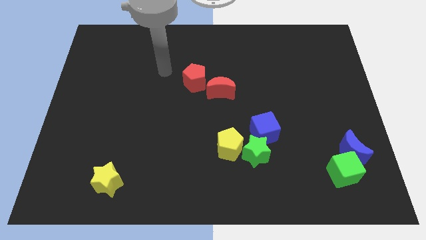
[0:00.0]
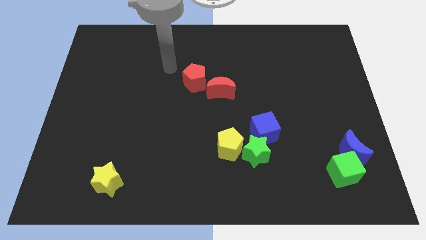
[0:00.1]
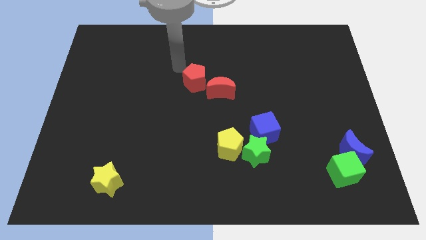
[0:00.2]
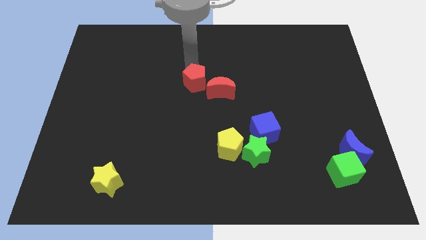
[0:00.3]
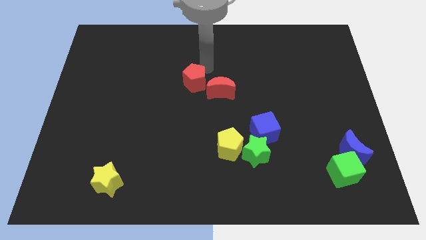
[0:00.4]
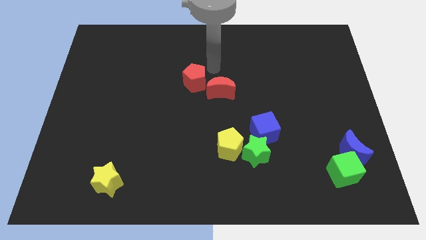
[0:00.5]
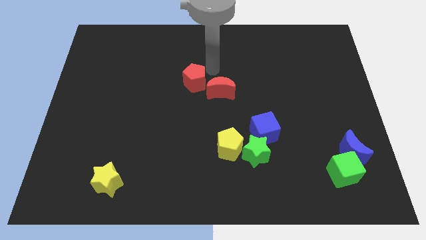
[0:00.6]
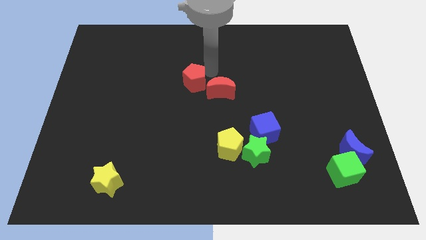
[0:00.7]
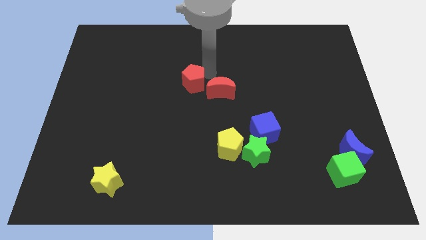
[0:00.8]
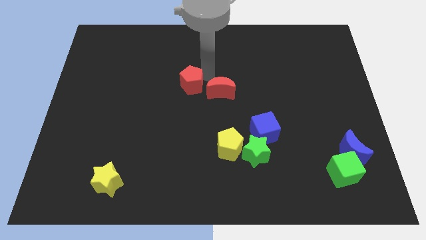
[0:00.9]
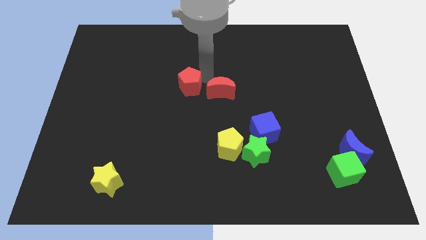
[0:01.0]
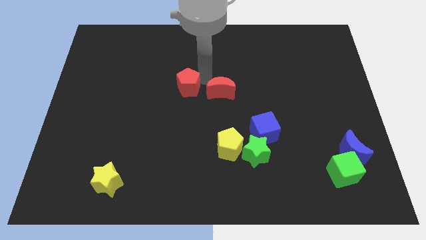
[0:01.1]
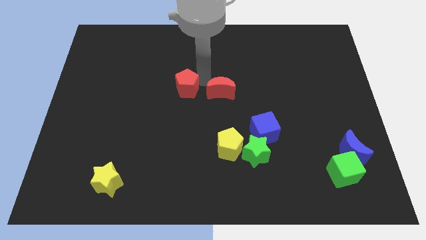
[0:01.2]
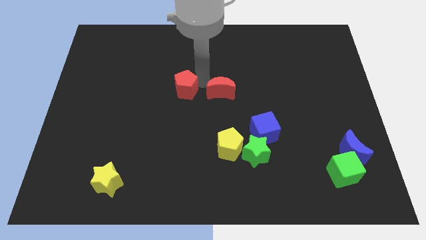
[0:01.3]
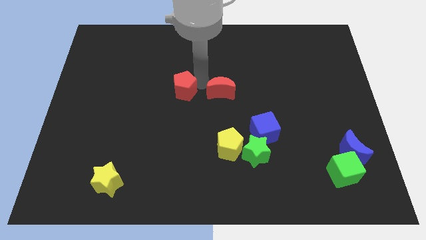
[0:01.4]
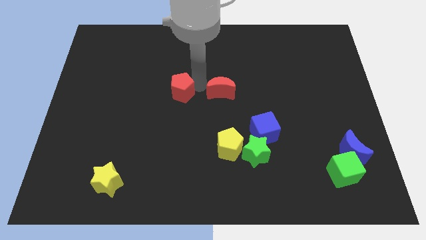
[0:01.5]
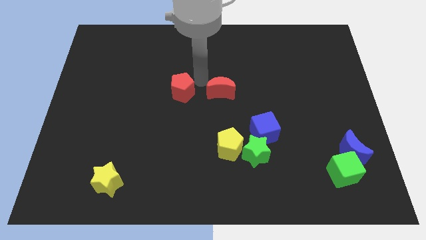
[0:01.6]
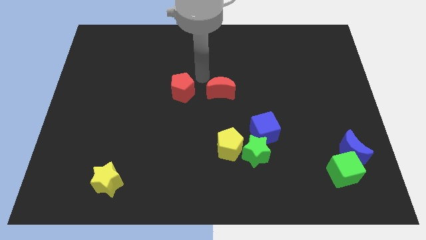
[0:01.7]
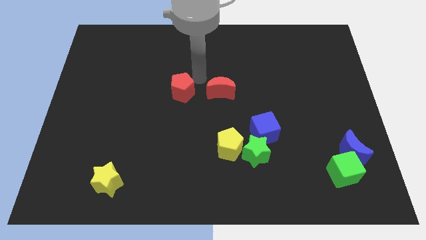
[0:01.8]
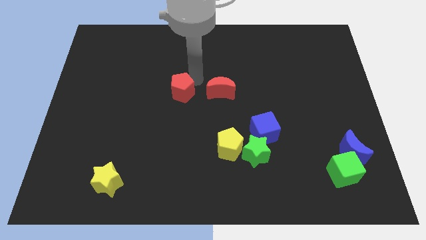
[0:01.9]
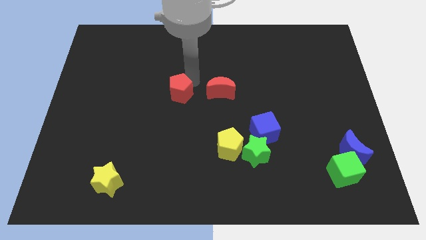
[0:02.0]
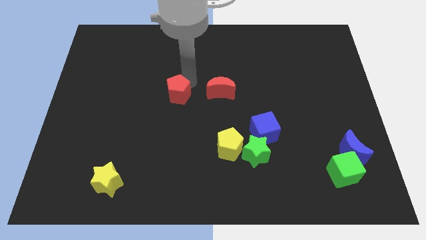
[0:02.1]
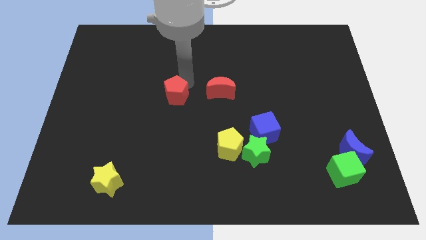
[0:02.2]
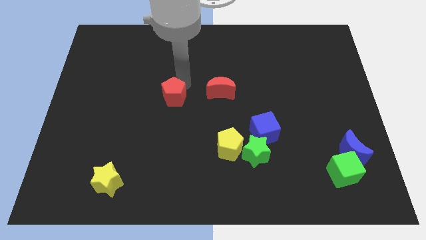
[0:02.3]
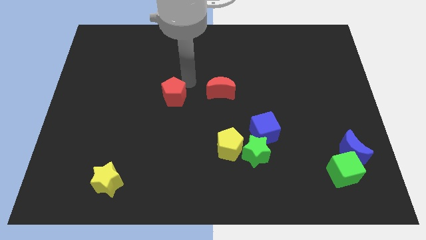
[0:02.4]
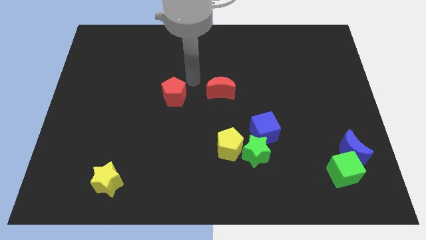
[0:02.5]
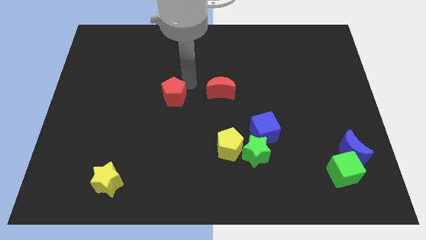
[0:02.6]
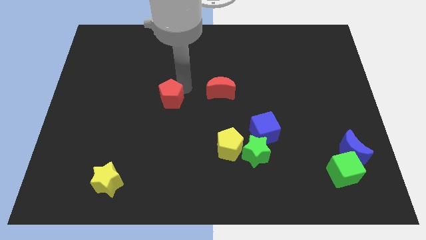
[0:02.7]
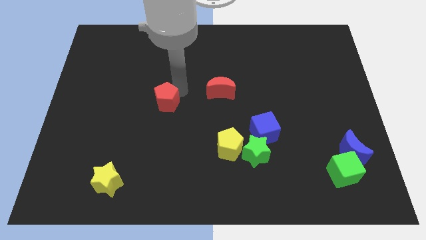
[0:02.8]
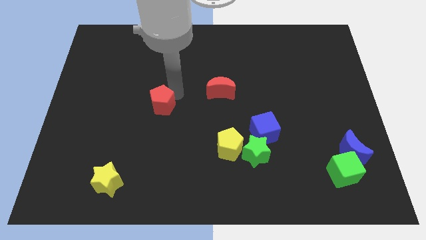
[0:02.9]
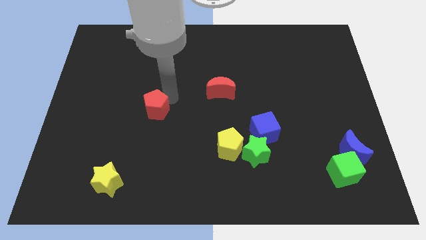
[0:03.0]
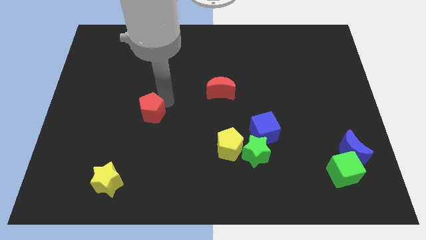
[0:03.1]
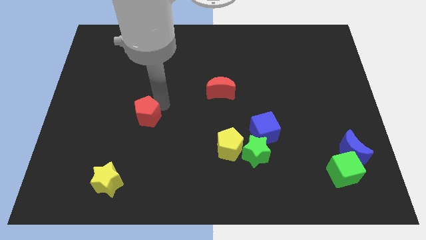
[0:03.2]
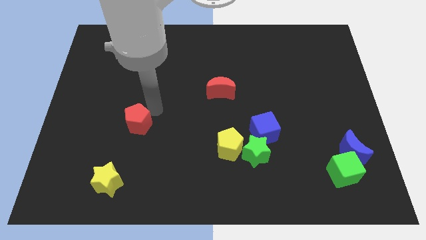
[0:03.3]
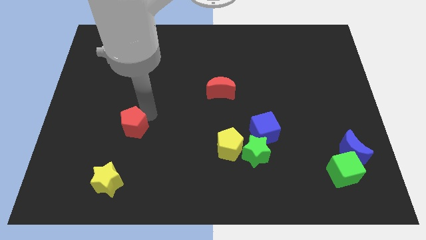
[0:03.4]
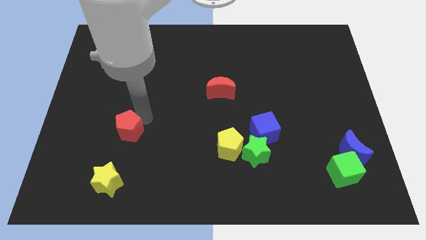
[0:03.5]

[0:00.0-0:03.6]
push the red pentagon down and then to the left

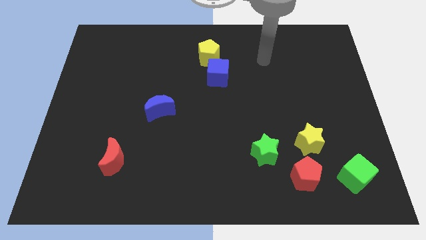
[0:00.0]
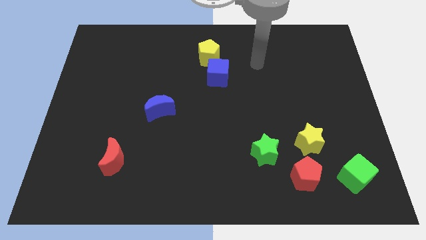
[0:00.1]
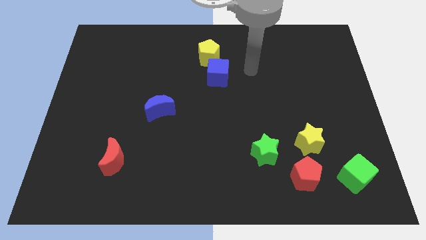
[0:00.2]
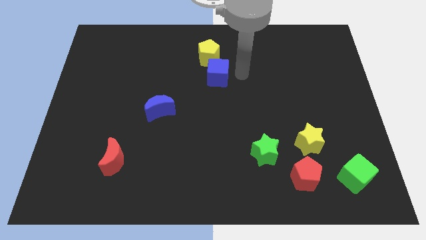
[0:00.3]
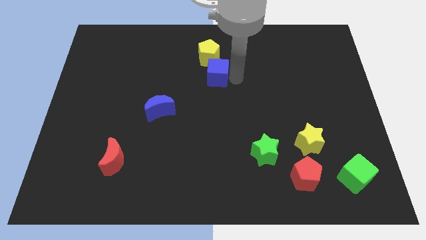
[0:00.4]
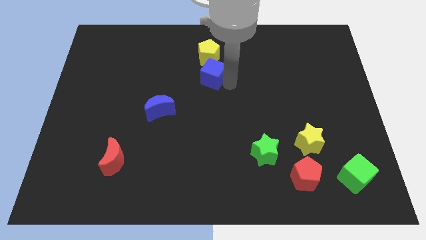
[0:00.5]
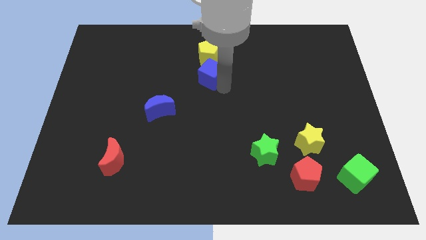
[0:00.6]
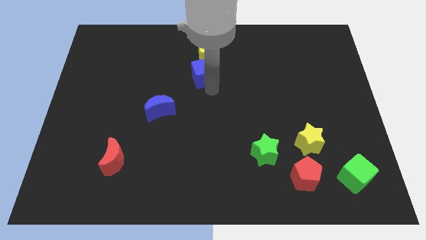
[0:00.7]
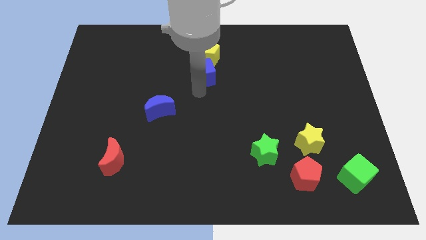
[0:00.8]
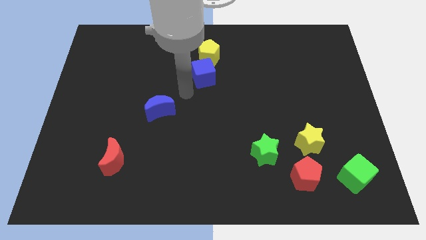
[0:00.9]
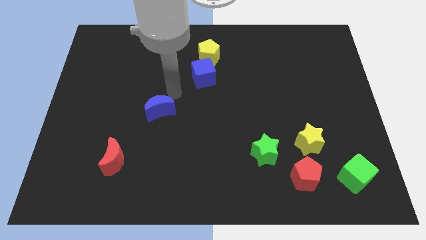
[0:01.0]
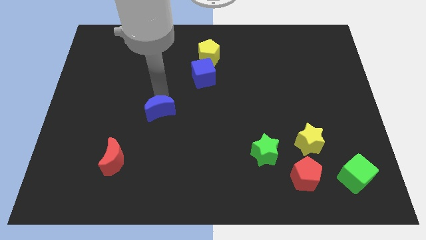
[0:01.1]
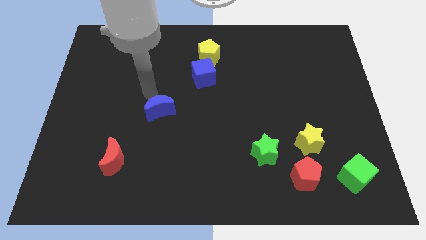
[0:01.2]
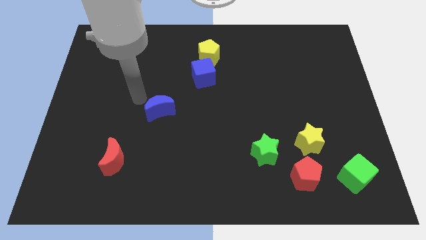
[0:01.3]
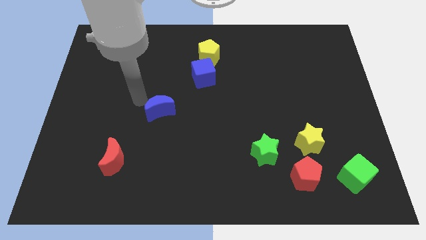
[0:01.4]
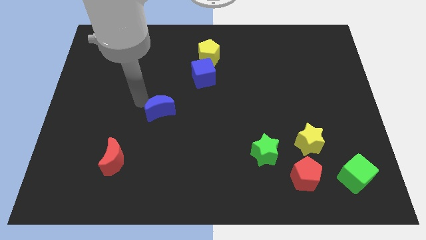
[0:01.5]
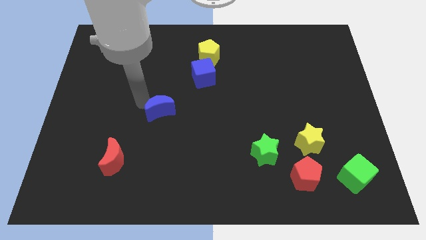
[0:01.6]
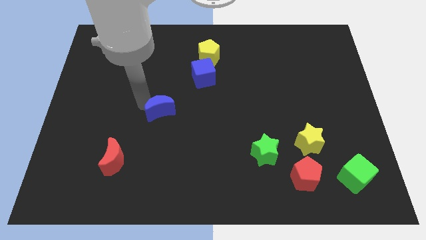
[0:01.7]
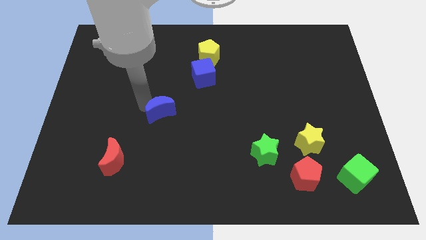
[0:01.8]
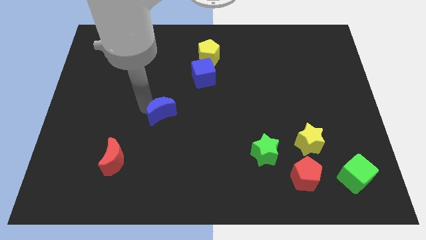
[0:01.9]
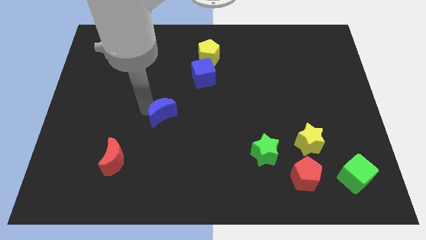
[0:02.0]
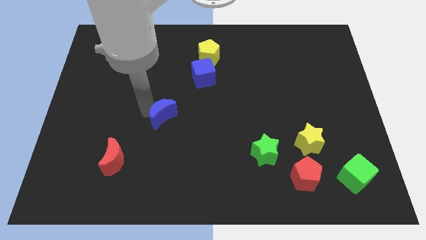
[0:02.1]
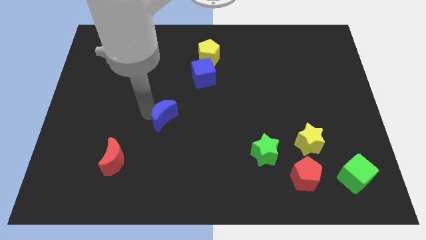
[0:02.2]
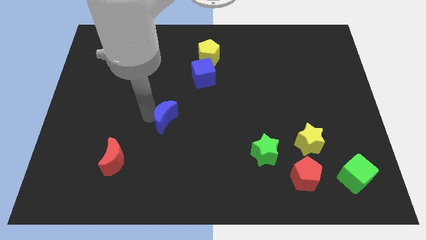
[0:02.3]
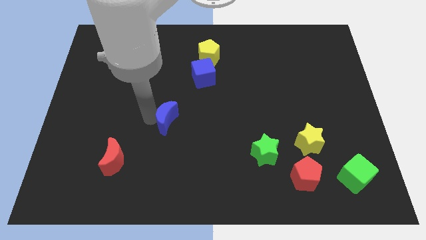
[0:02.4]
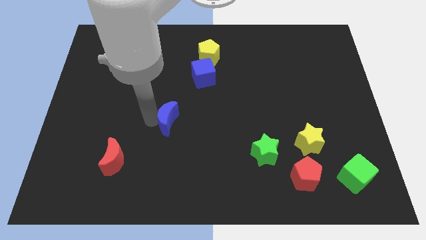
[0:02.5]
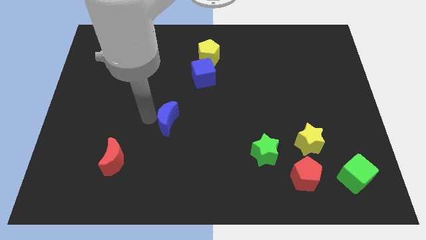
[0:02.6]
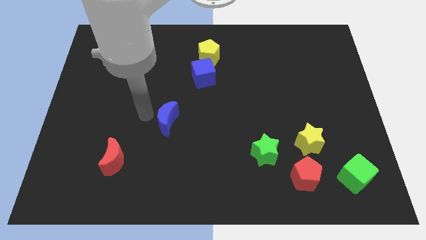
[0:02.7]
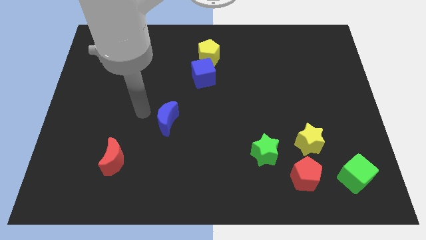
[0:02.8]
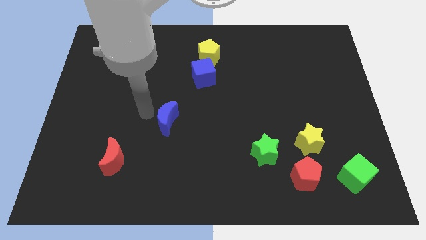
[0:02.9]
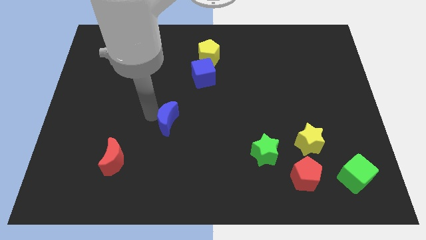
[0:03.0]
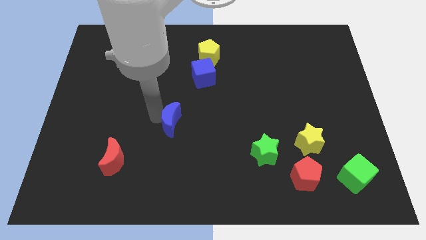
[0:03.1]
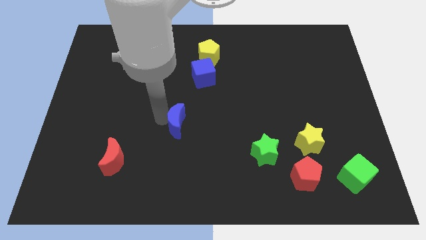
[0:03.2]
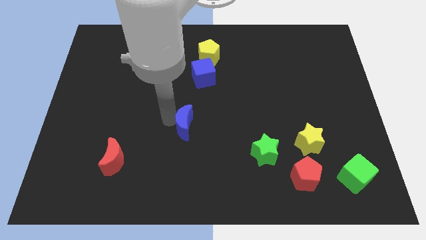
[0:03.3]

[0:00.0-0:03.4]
slide the blue moon a bit diagonally downwards and right

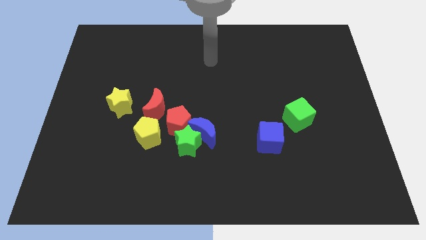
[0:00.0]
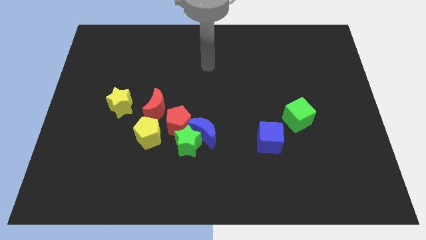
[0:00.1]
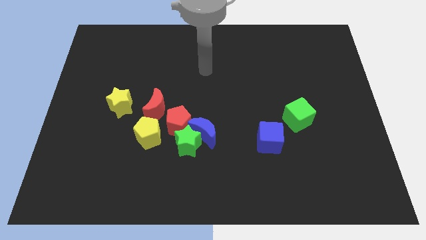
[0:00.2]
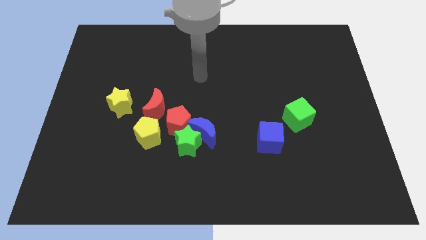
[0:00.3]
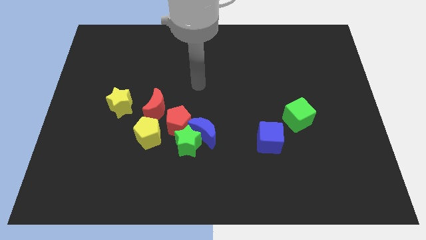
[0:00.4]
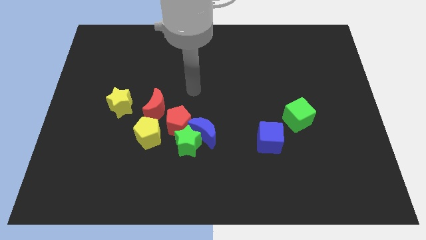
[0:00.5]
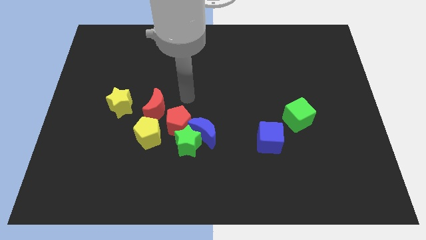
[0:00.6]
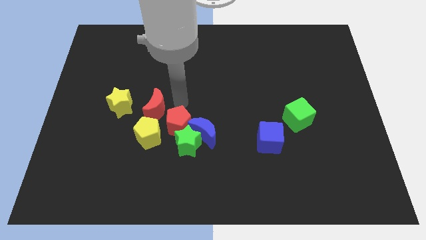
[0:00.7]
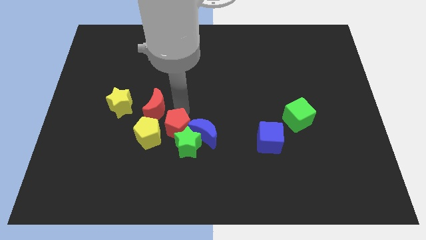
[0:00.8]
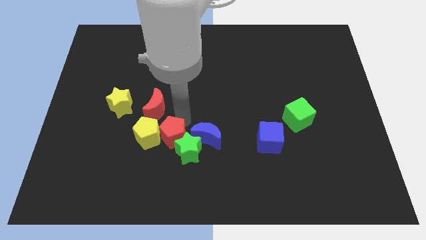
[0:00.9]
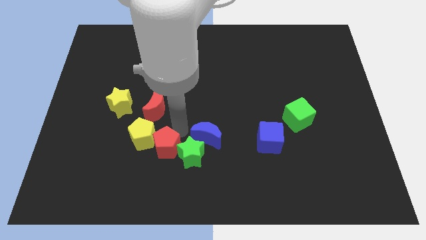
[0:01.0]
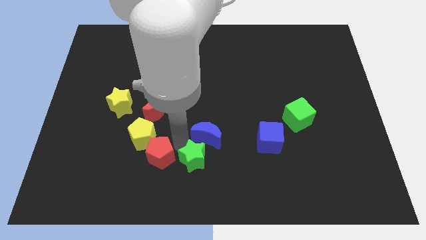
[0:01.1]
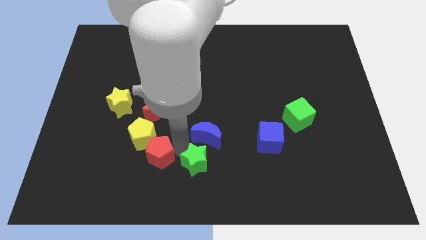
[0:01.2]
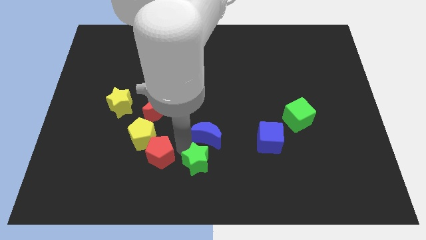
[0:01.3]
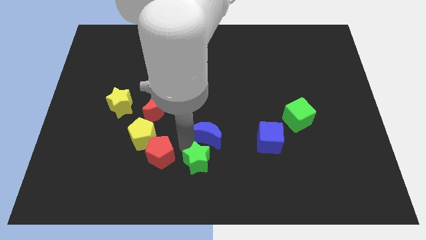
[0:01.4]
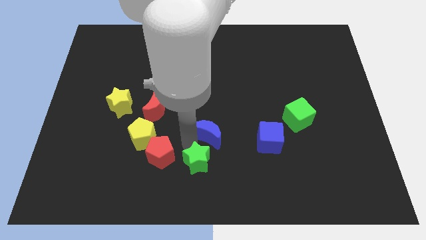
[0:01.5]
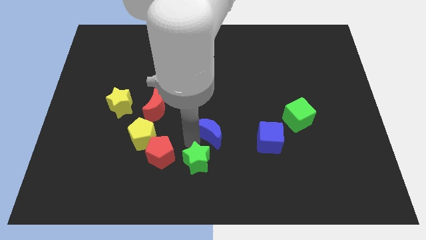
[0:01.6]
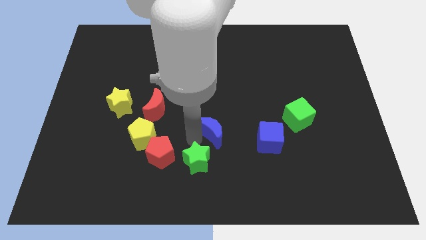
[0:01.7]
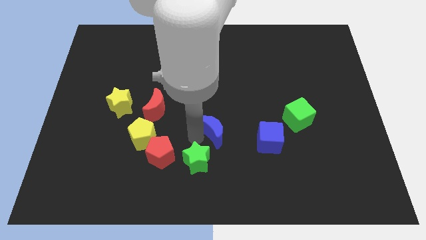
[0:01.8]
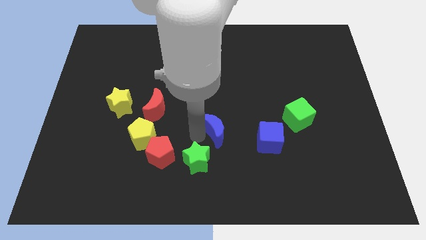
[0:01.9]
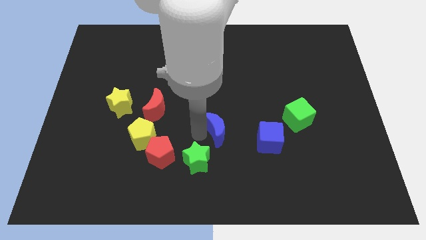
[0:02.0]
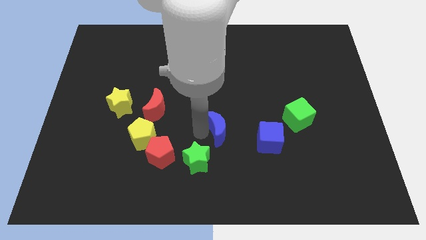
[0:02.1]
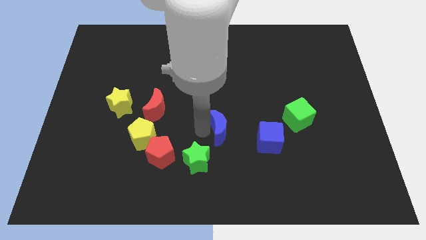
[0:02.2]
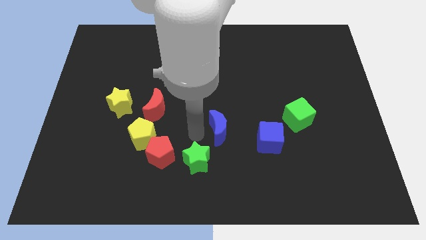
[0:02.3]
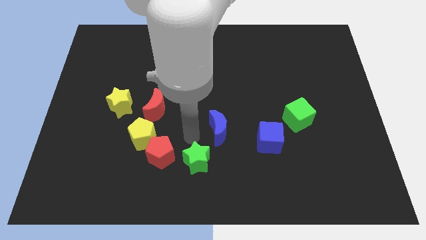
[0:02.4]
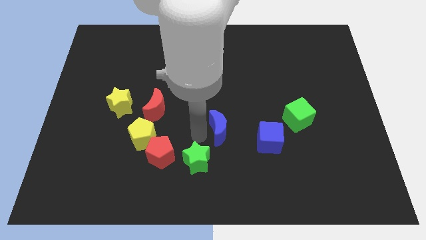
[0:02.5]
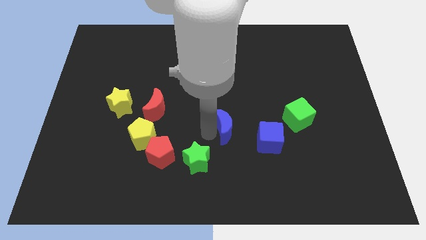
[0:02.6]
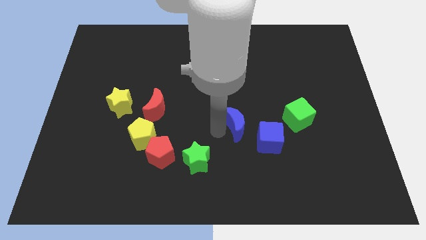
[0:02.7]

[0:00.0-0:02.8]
slide the blue moon somewhat to the right
